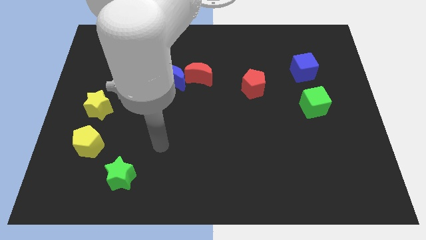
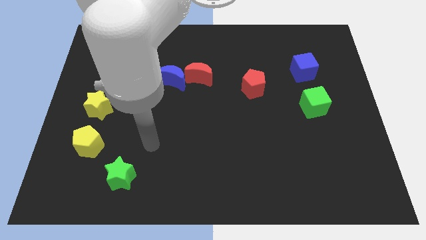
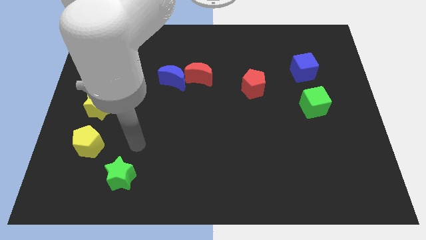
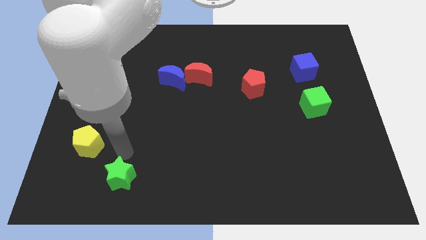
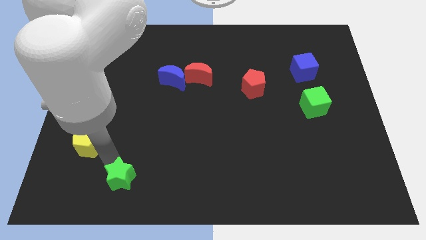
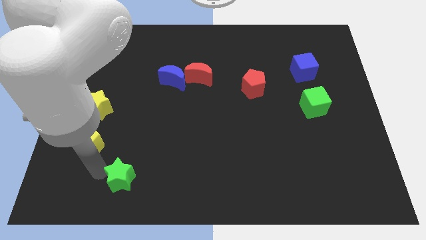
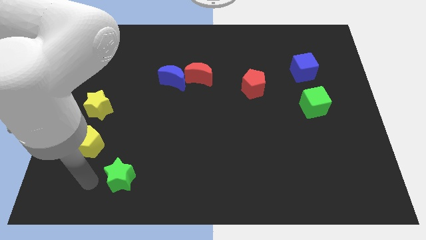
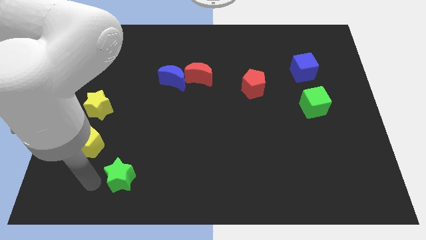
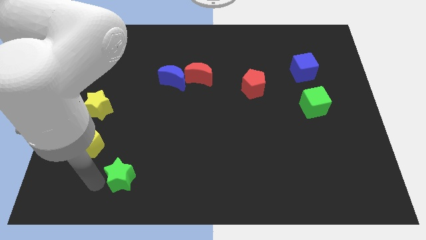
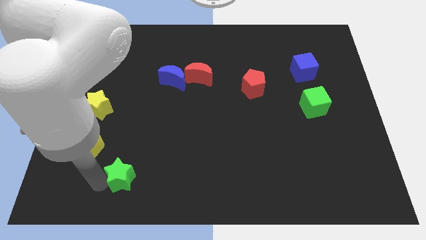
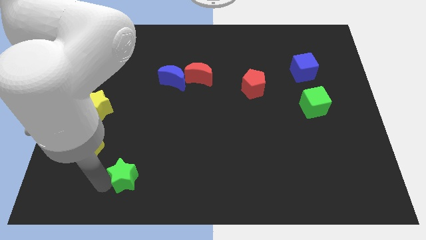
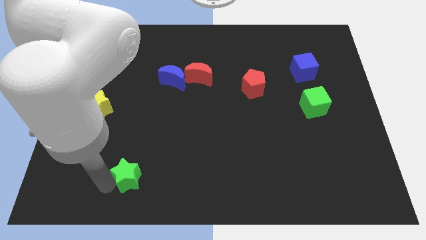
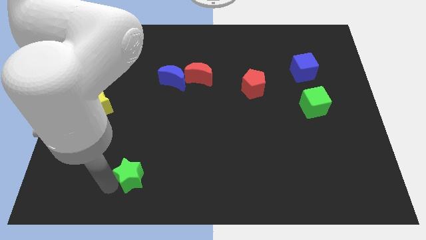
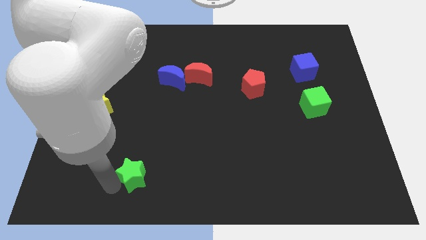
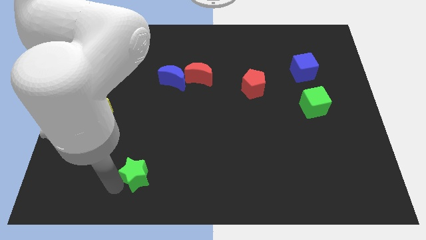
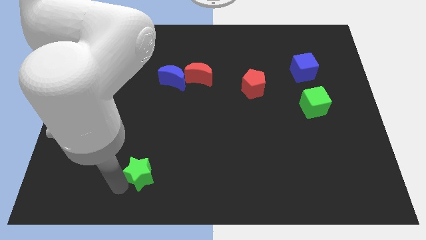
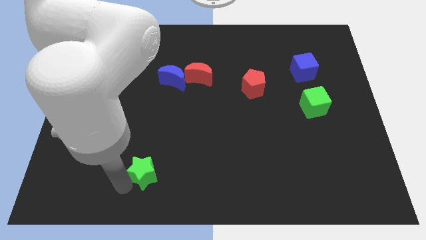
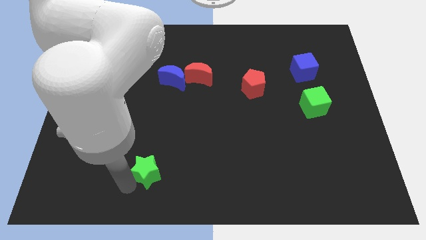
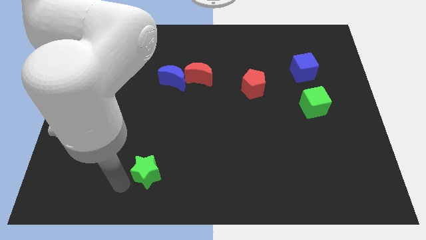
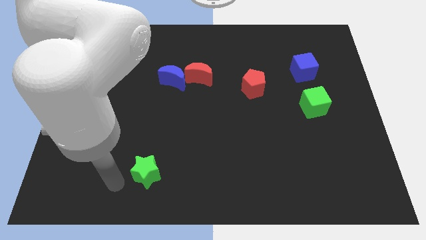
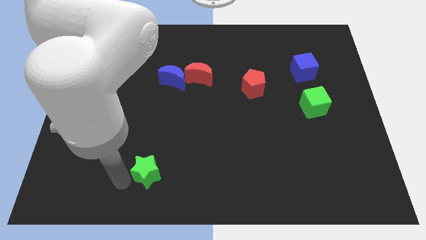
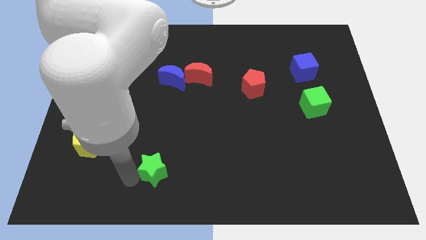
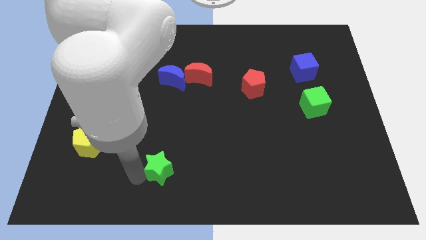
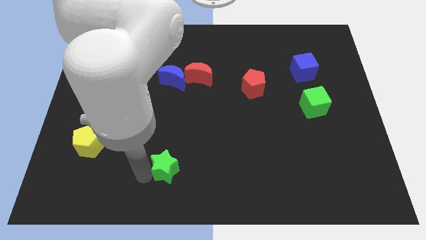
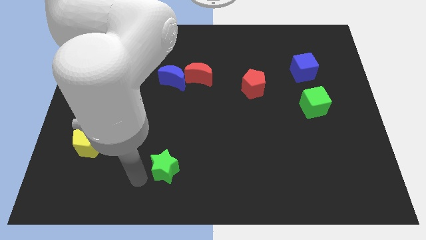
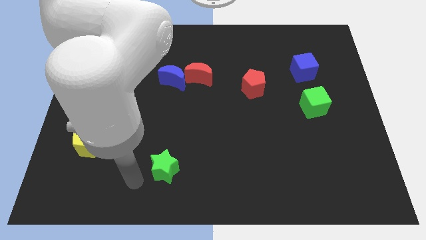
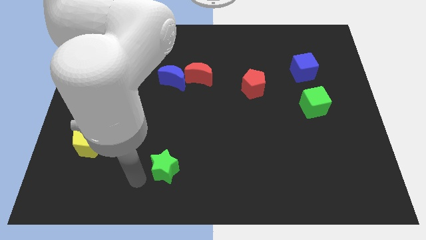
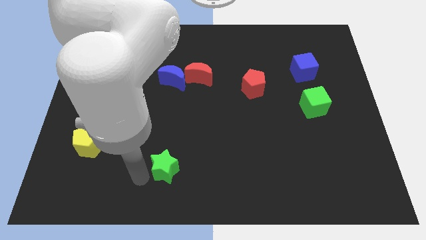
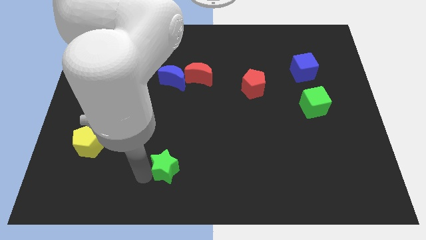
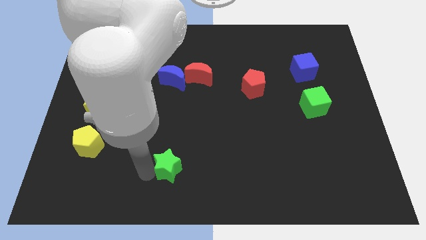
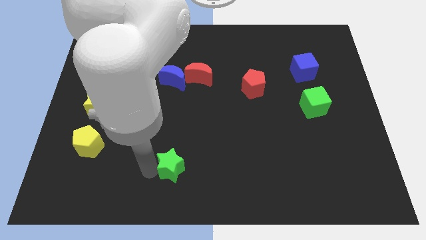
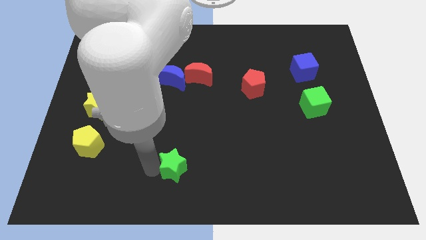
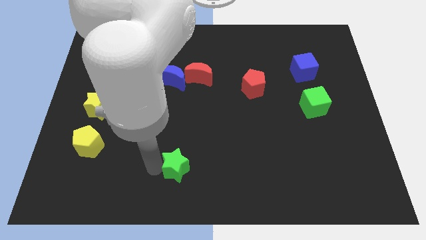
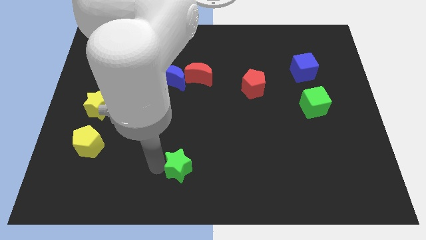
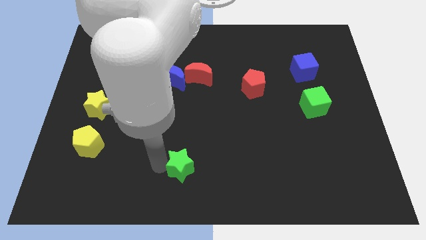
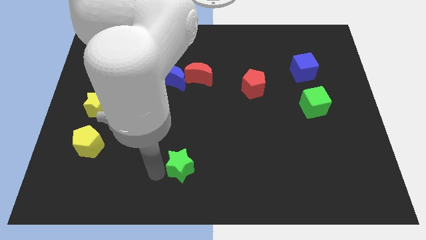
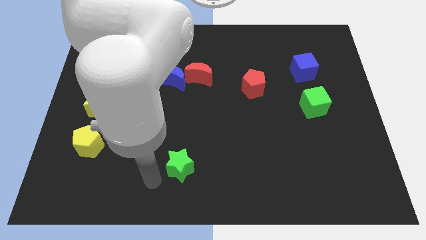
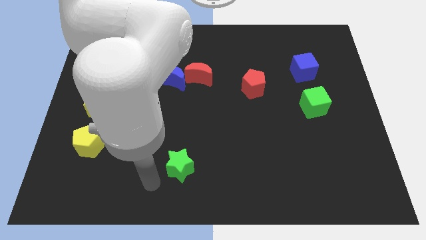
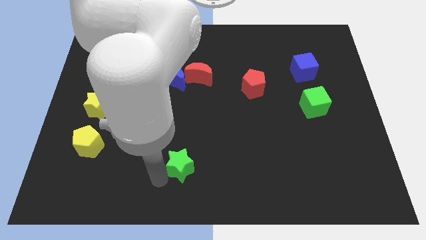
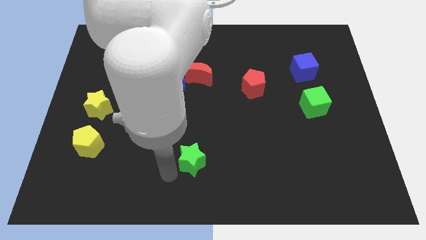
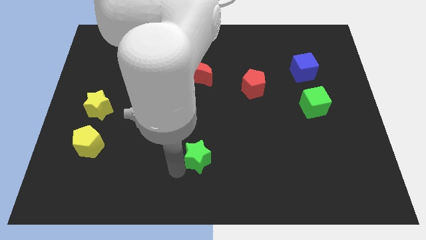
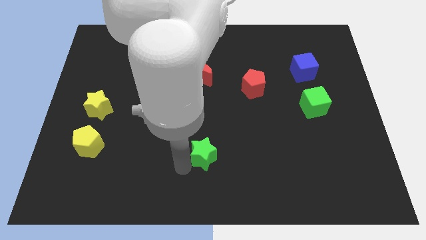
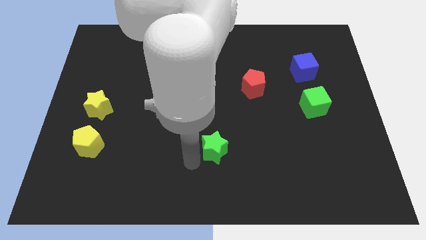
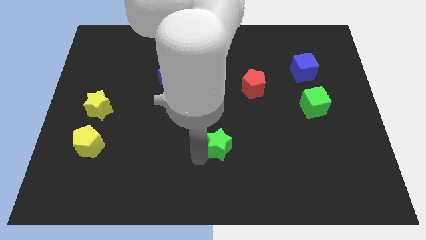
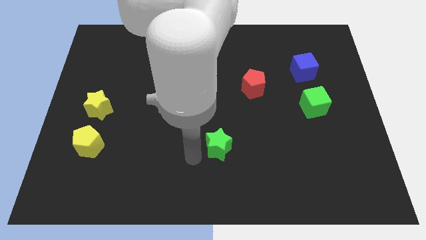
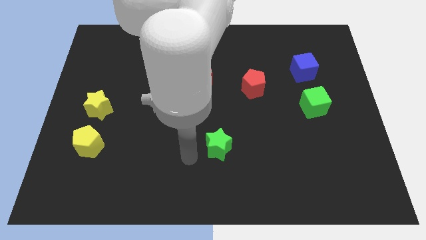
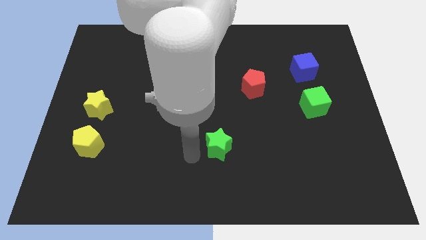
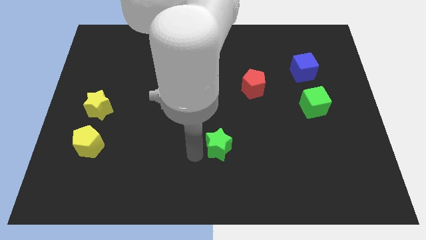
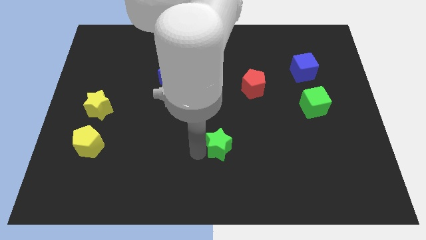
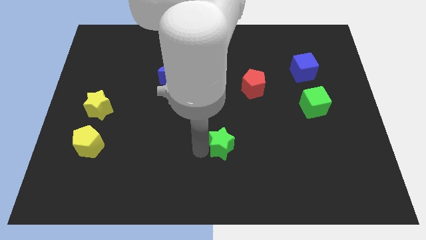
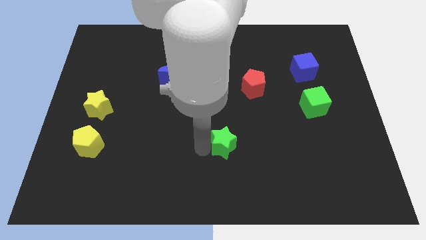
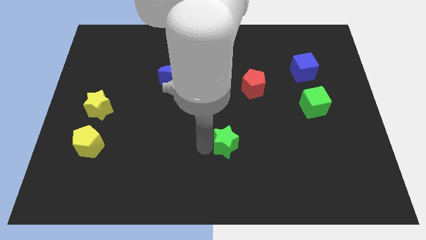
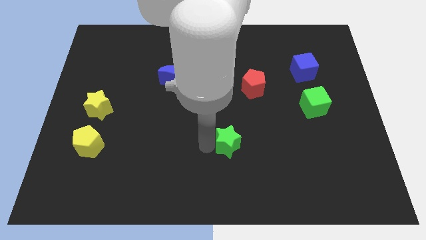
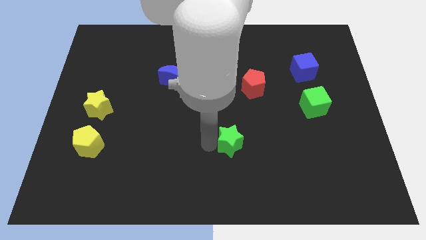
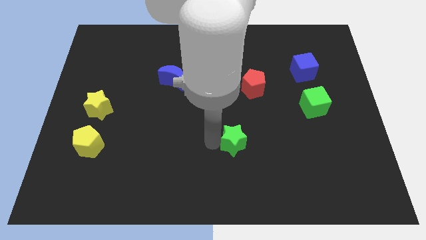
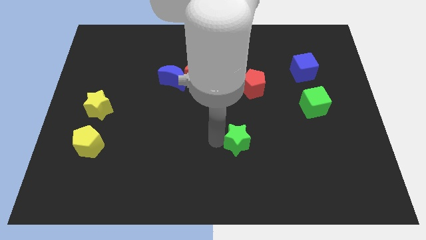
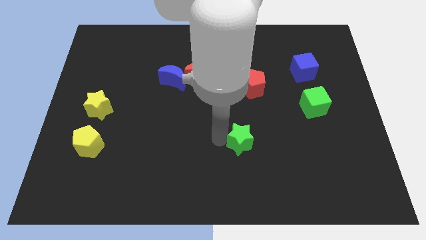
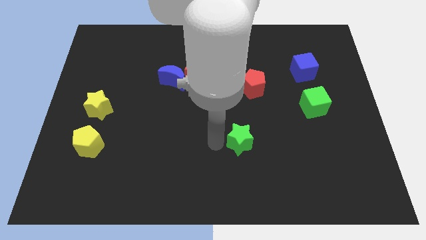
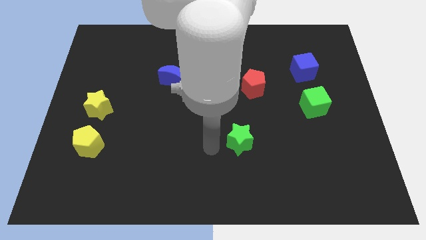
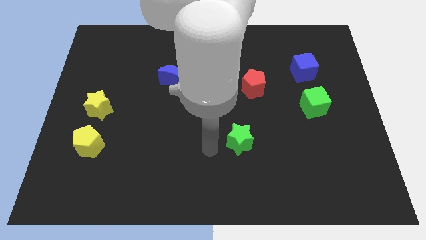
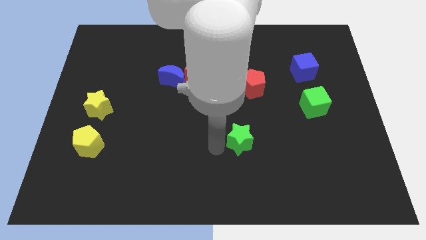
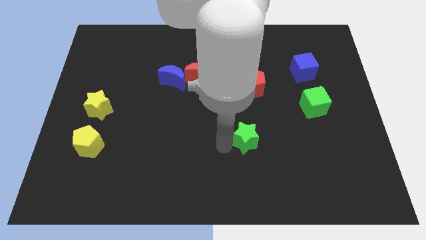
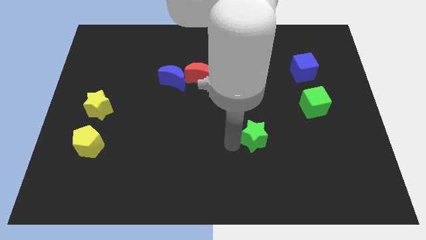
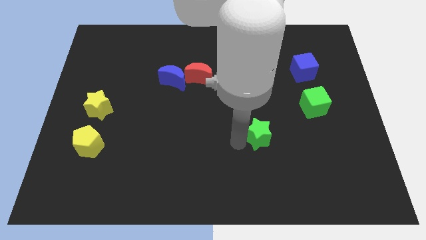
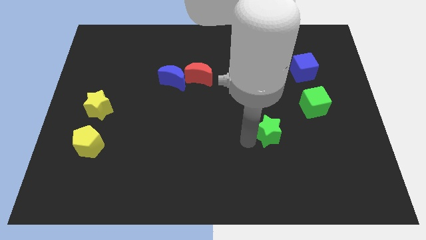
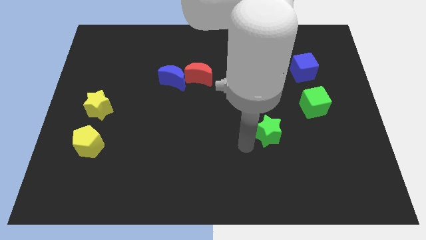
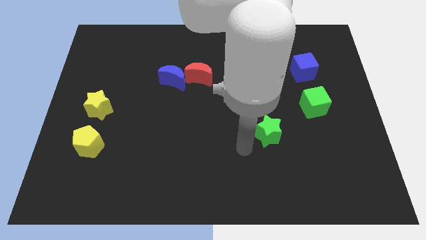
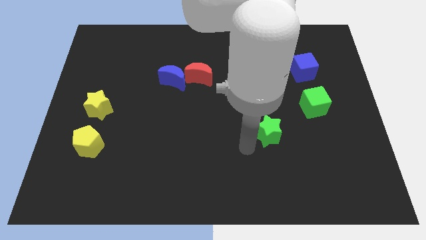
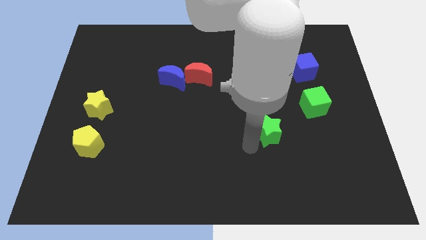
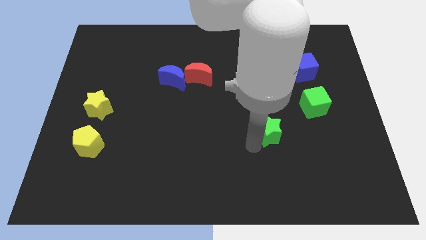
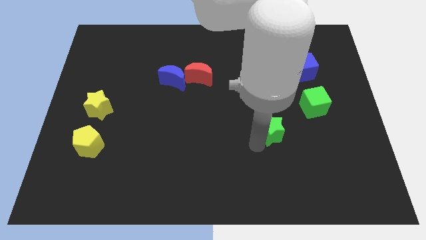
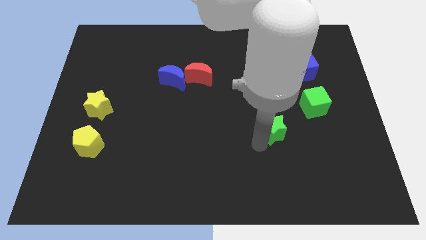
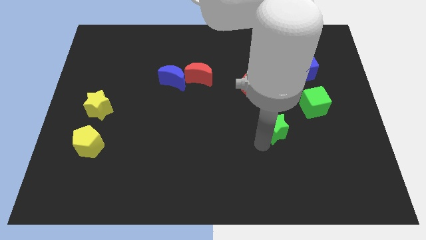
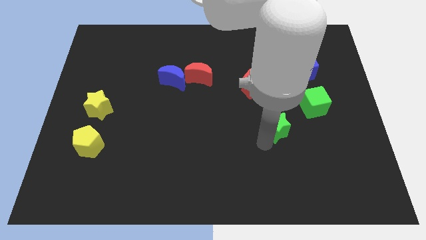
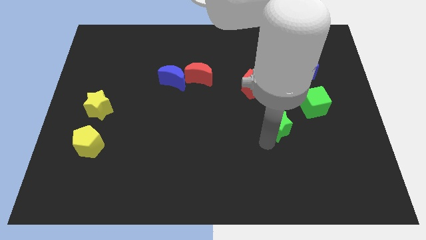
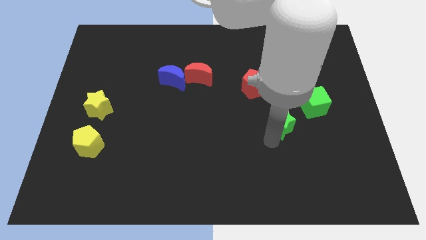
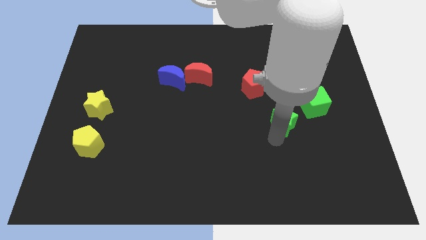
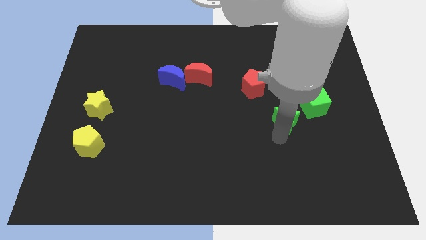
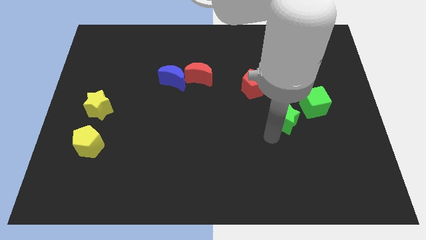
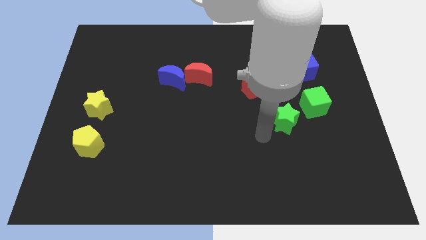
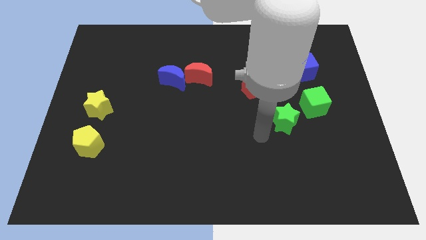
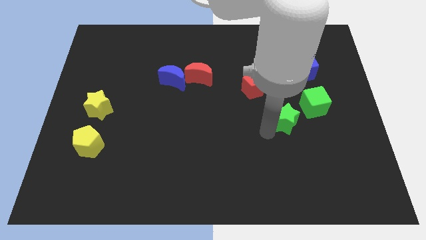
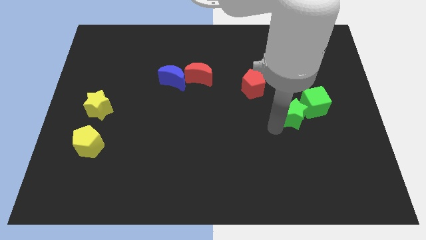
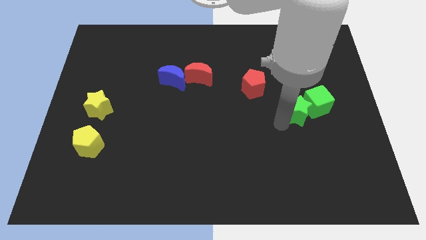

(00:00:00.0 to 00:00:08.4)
slide the green star towards the green cube
